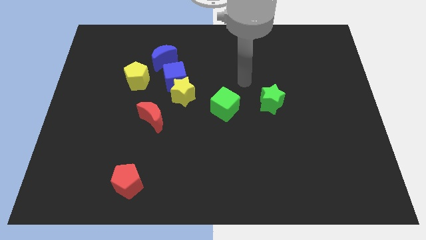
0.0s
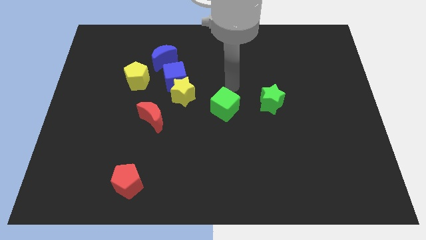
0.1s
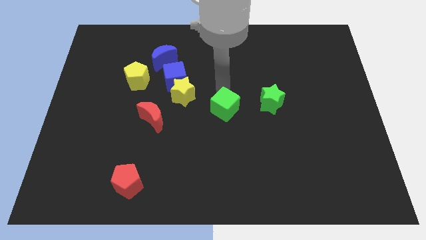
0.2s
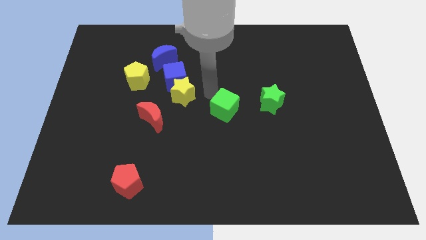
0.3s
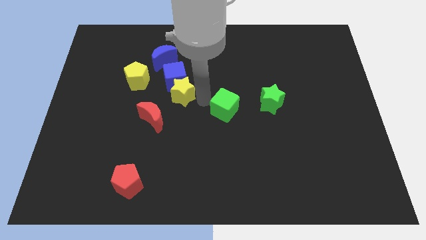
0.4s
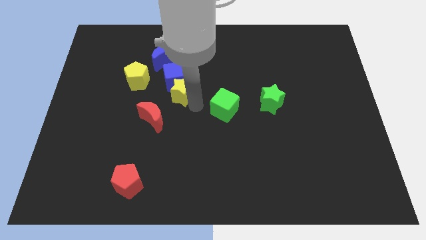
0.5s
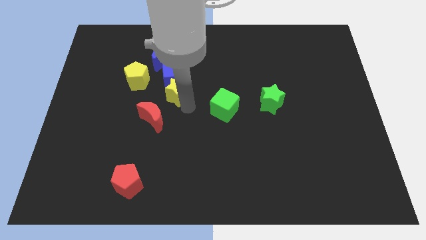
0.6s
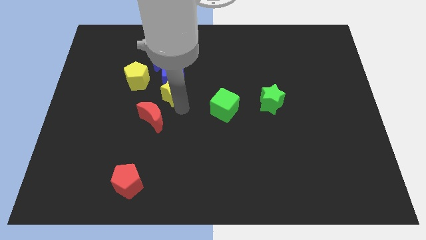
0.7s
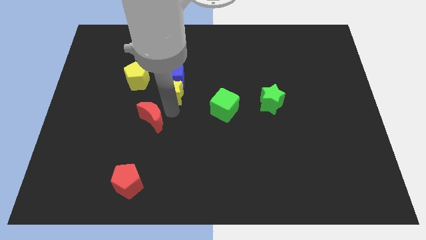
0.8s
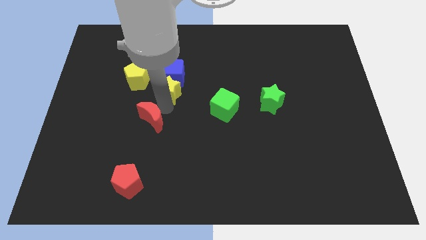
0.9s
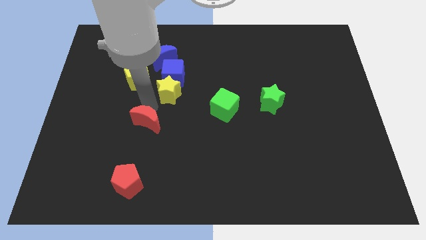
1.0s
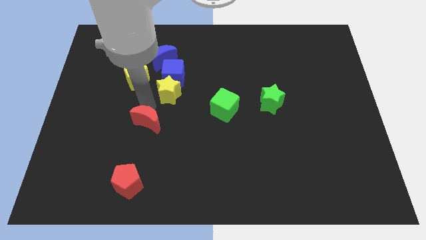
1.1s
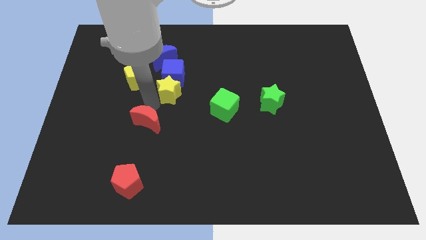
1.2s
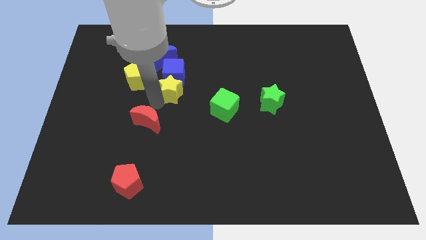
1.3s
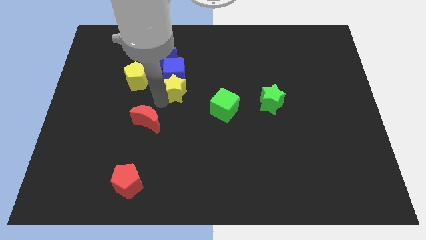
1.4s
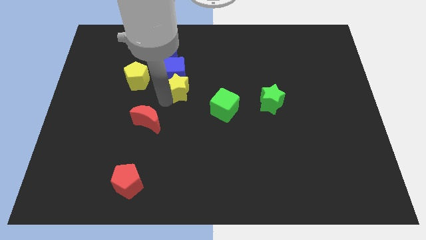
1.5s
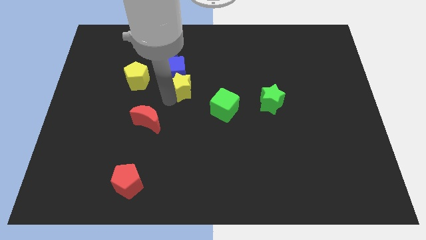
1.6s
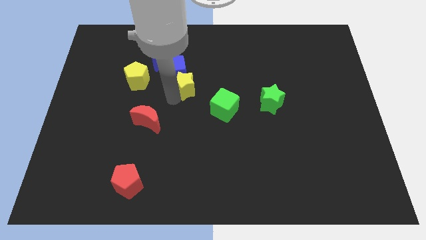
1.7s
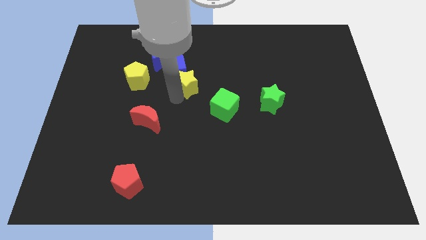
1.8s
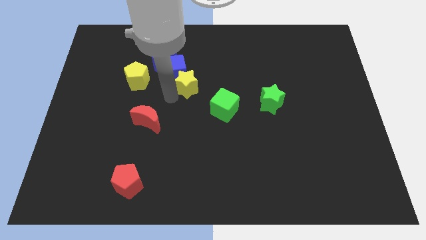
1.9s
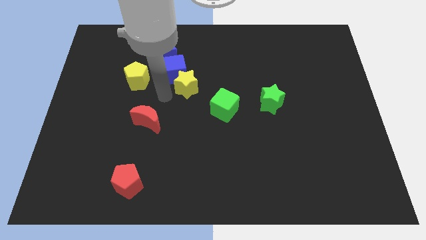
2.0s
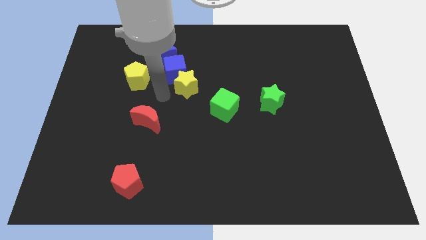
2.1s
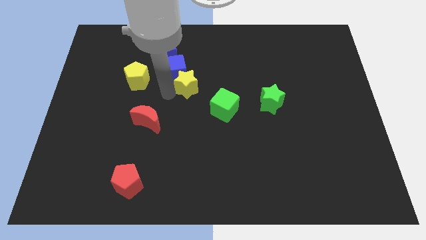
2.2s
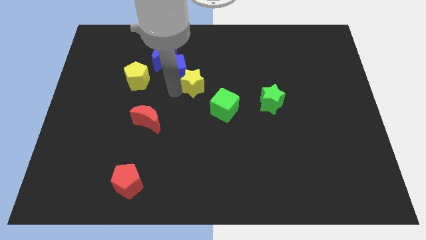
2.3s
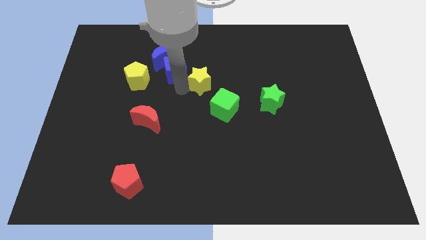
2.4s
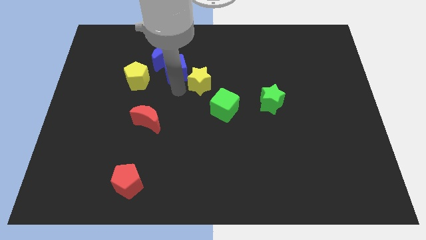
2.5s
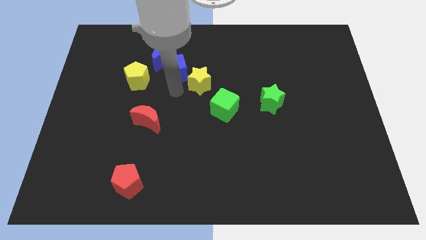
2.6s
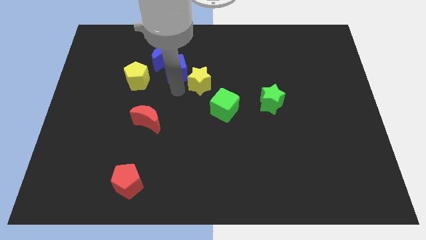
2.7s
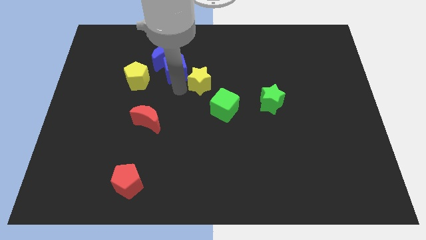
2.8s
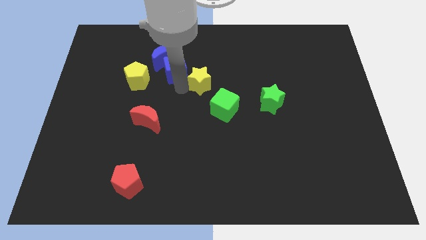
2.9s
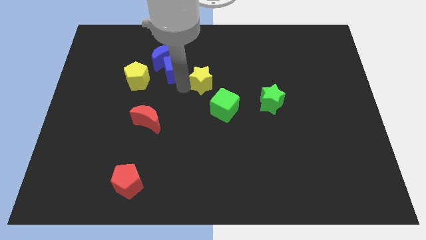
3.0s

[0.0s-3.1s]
pull the yellow star apart from the blue cube and red moon

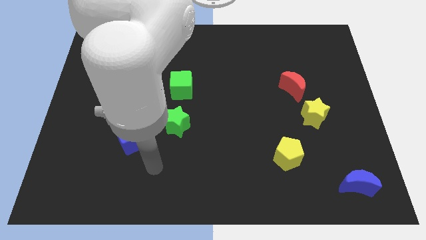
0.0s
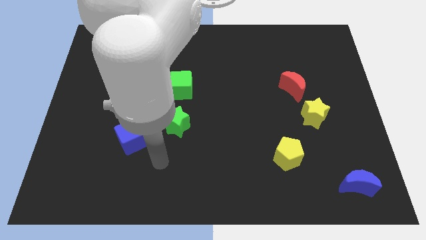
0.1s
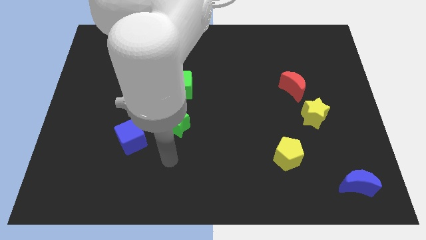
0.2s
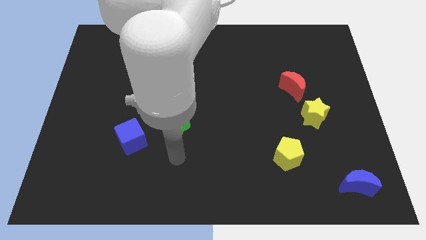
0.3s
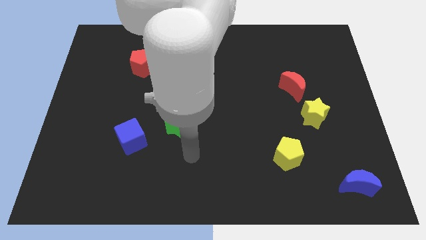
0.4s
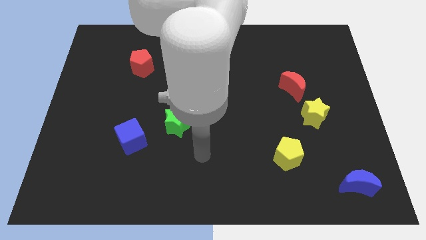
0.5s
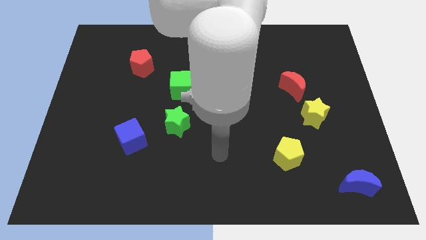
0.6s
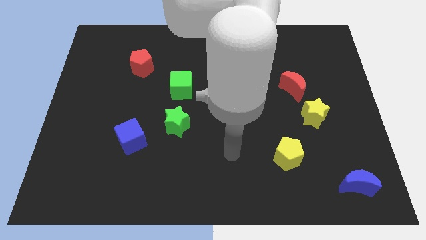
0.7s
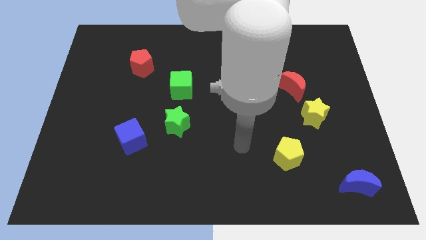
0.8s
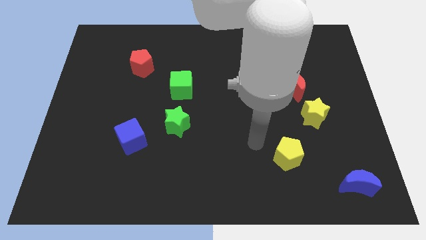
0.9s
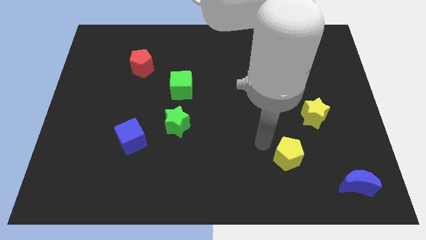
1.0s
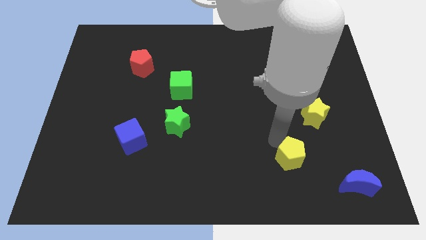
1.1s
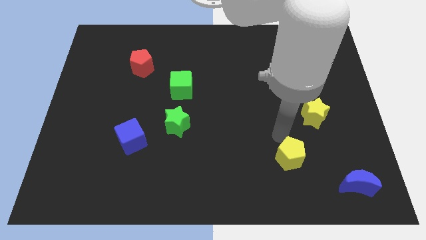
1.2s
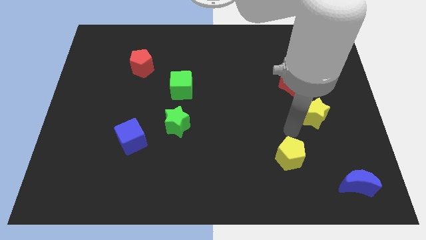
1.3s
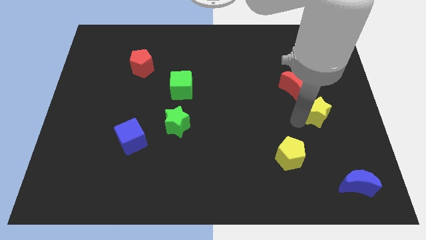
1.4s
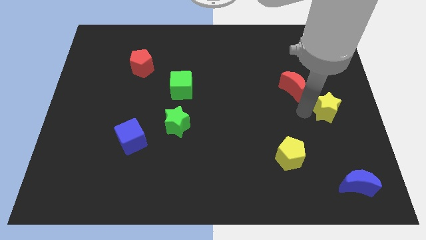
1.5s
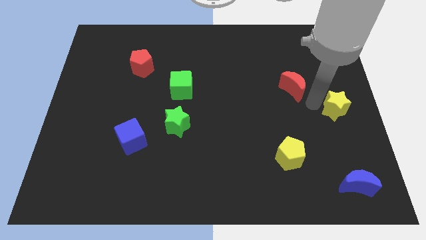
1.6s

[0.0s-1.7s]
move the red moon away from the yellow star

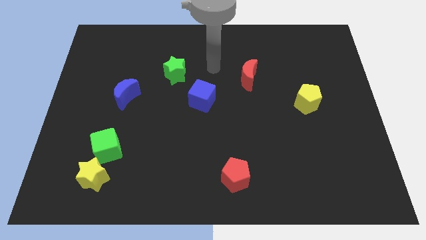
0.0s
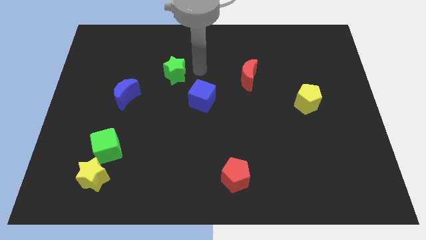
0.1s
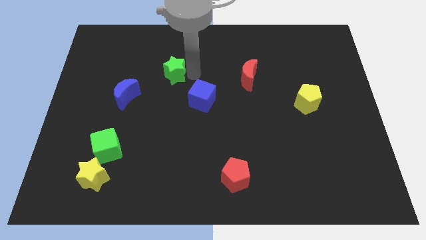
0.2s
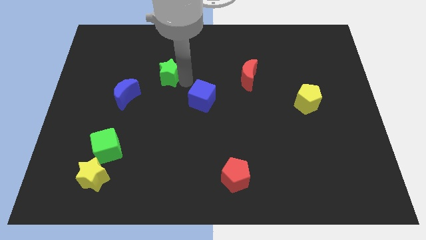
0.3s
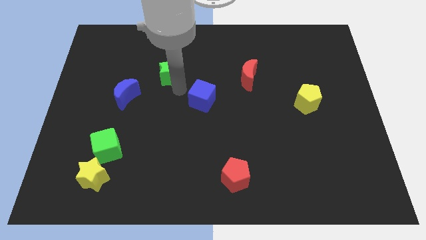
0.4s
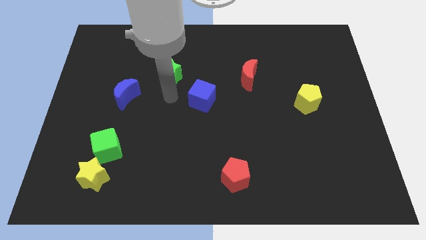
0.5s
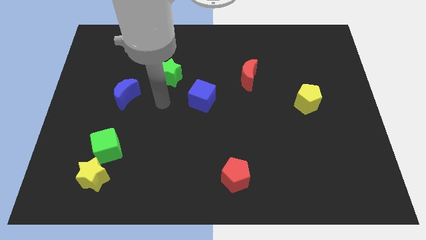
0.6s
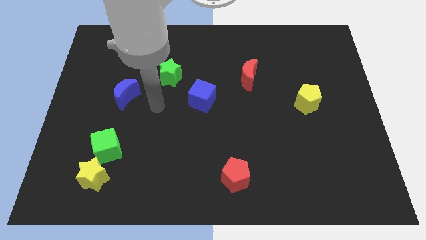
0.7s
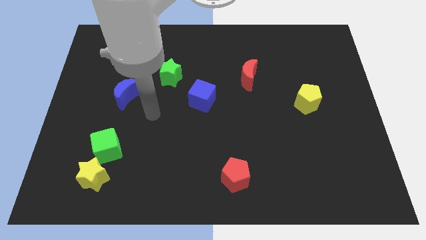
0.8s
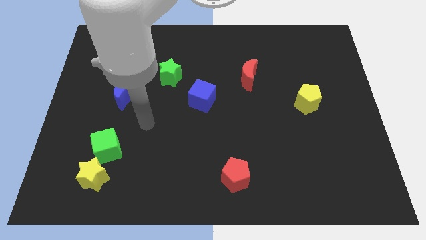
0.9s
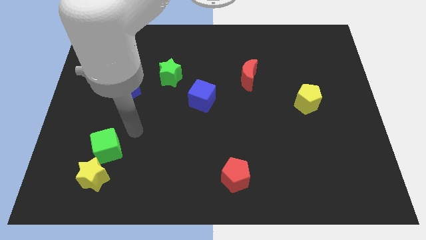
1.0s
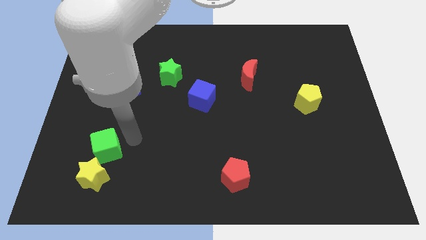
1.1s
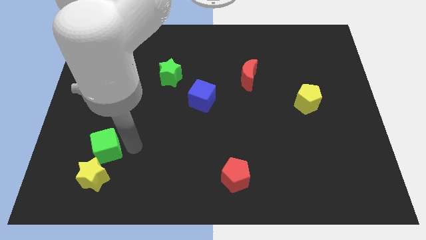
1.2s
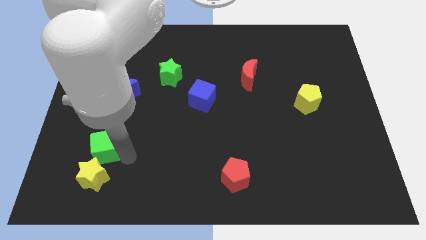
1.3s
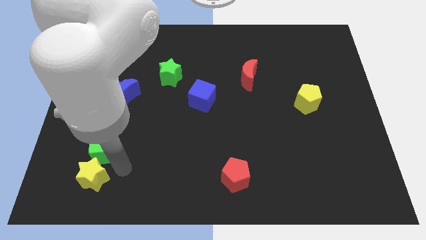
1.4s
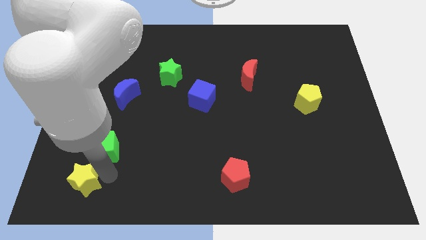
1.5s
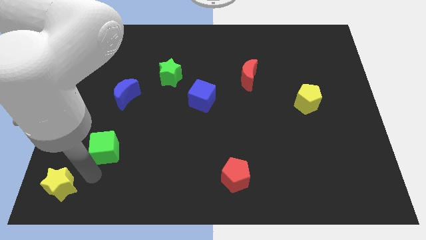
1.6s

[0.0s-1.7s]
separate the green cube from the yellow star

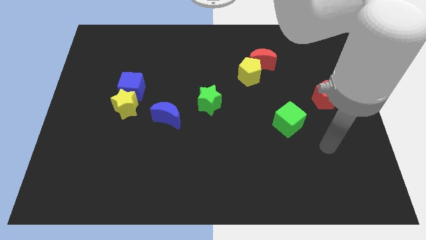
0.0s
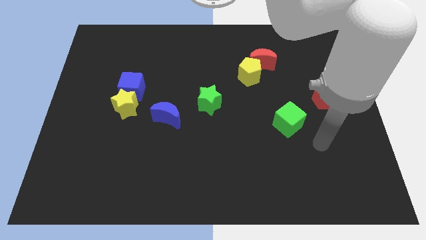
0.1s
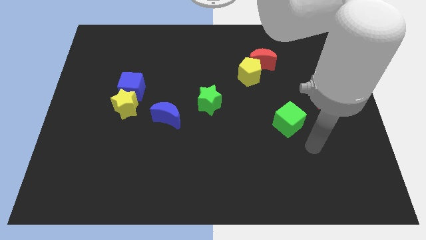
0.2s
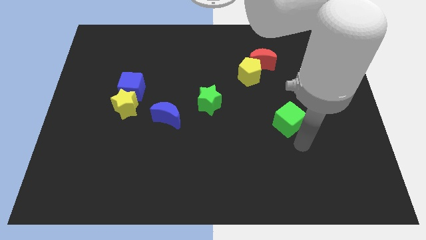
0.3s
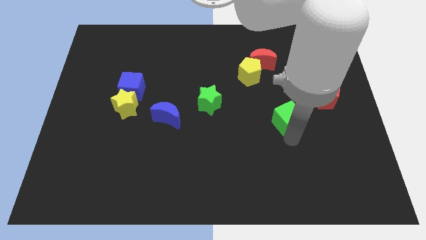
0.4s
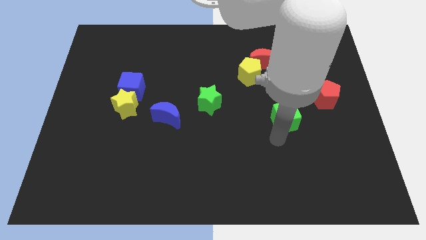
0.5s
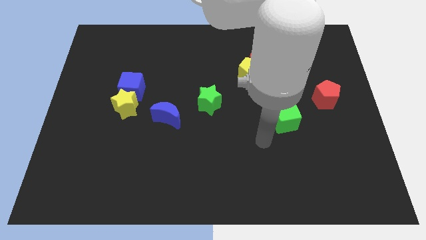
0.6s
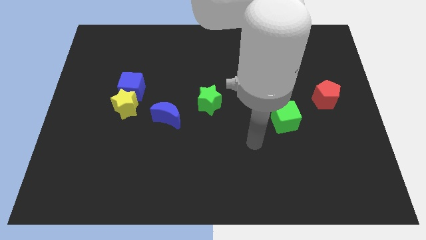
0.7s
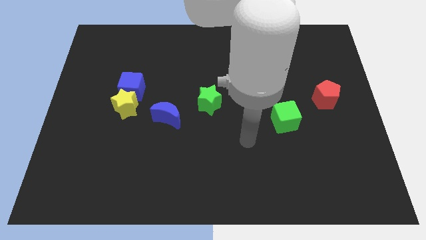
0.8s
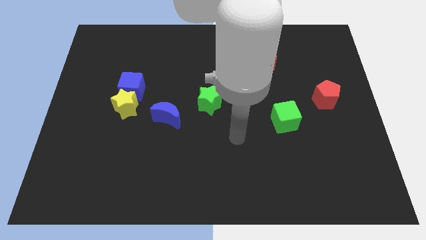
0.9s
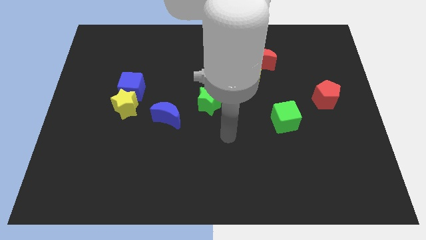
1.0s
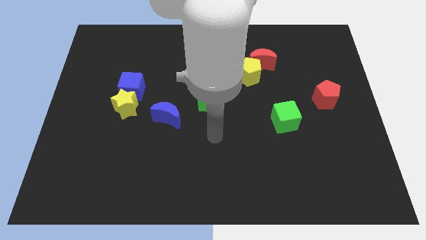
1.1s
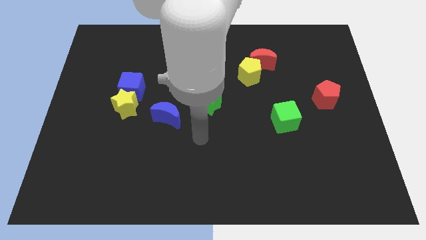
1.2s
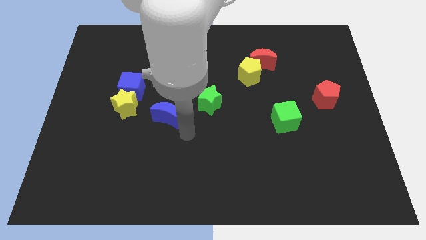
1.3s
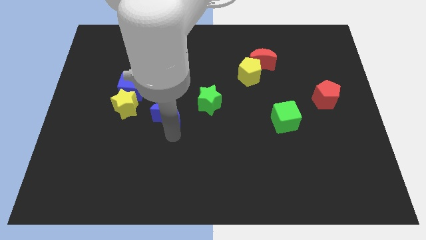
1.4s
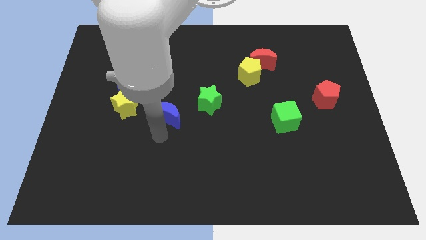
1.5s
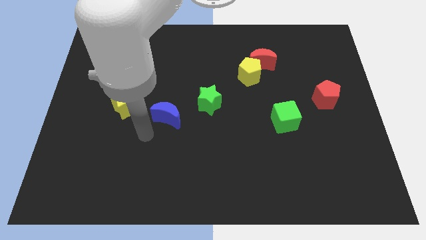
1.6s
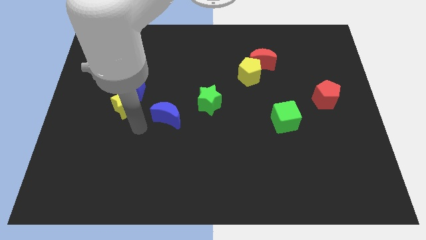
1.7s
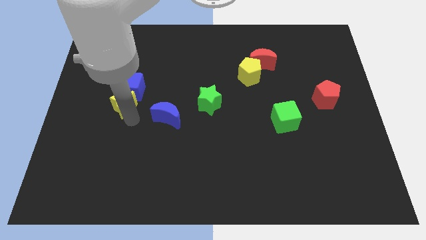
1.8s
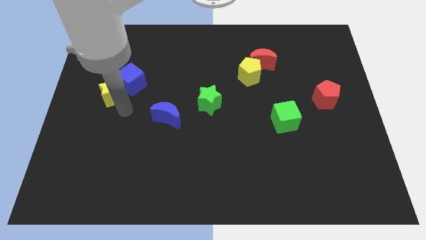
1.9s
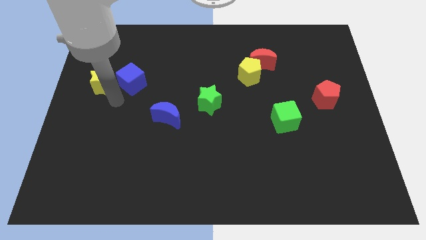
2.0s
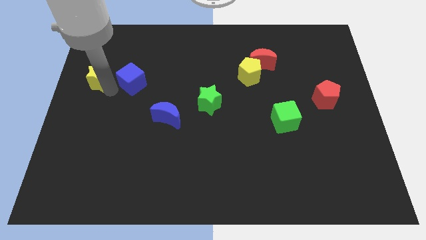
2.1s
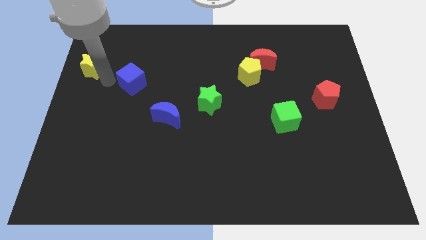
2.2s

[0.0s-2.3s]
separate the blue cube from the yellow star

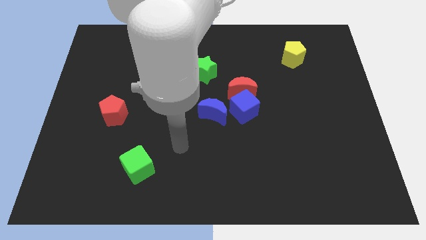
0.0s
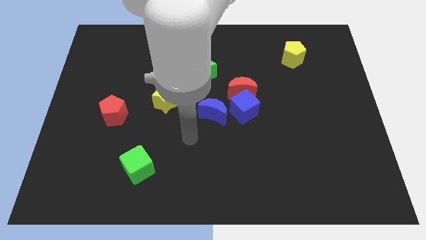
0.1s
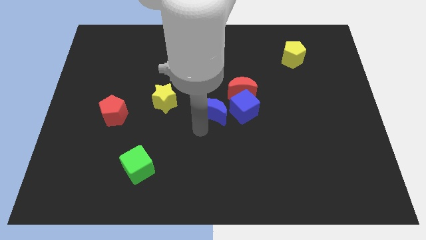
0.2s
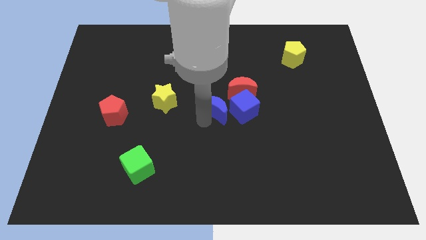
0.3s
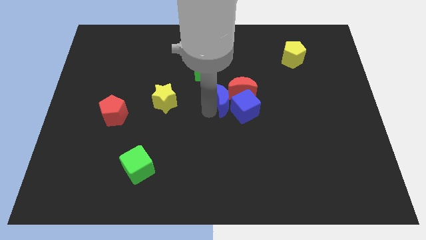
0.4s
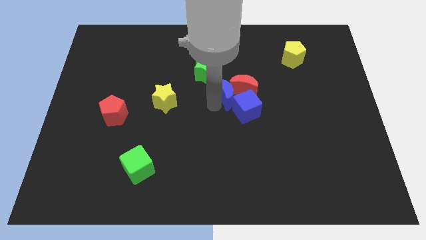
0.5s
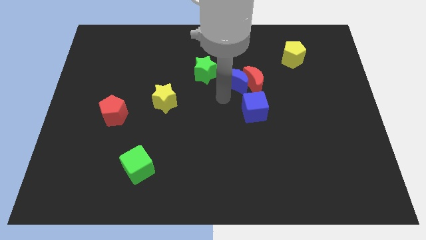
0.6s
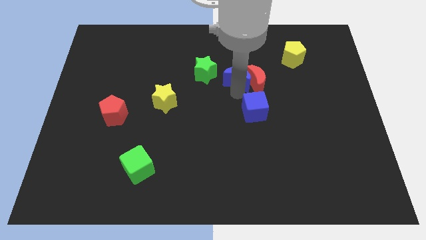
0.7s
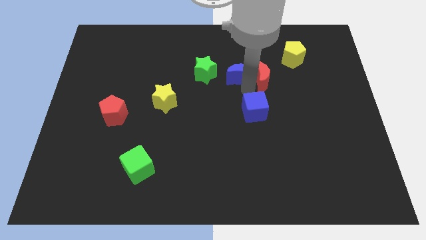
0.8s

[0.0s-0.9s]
move the blue cube away from the red moon and blue moon
